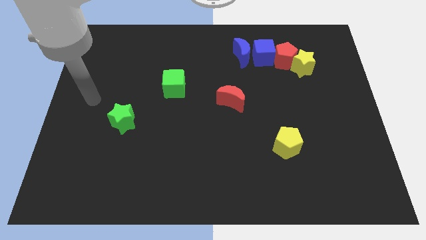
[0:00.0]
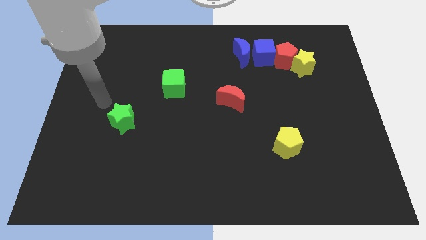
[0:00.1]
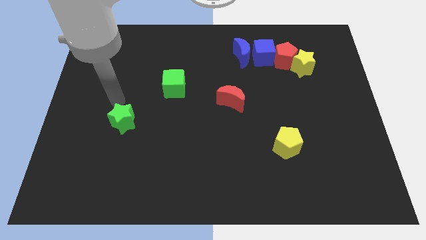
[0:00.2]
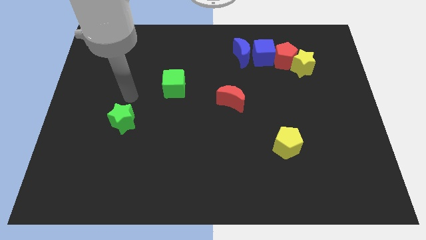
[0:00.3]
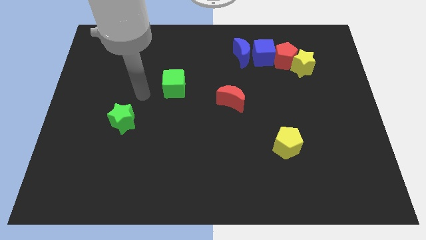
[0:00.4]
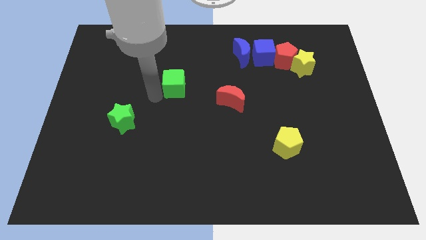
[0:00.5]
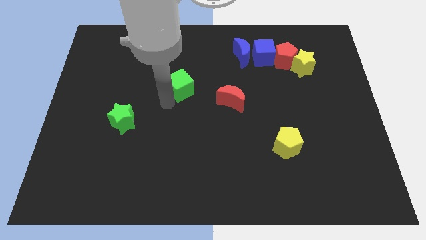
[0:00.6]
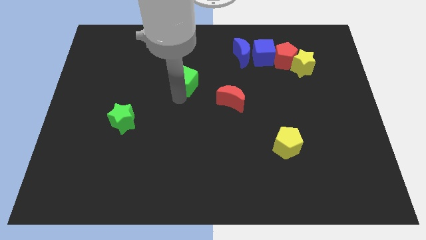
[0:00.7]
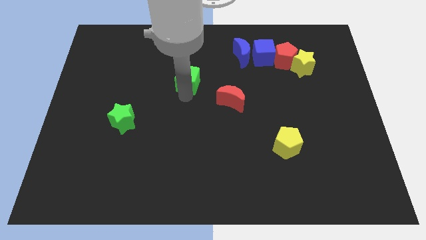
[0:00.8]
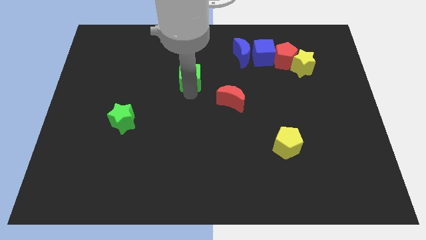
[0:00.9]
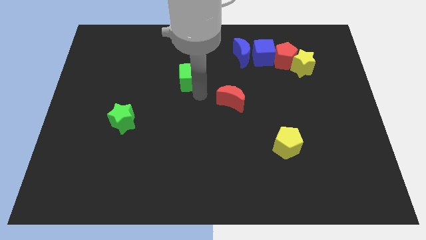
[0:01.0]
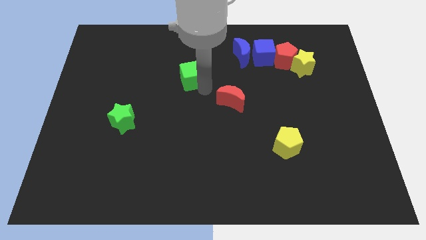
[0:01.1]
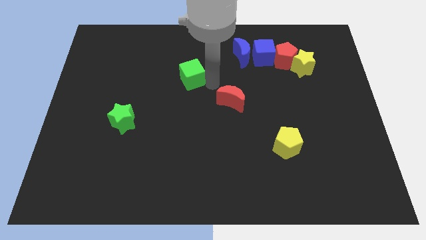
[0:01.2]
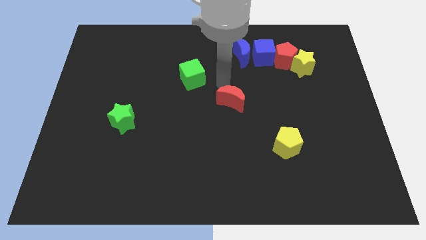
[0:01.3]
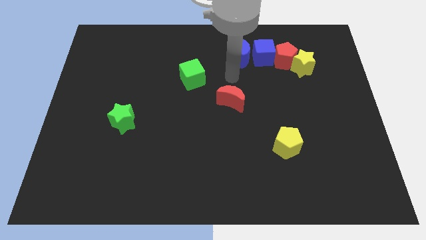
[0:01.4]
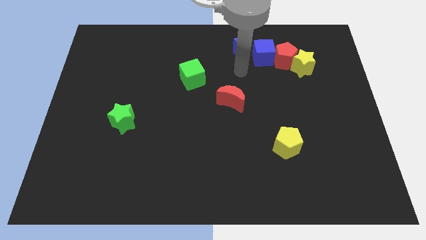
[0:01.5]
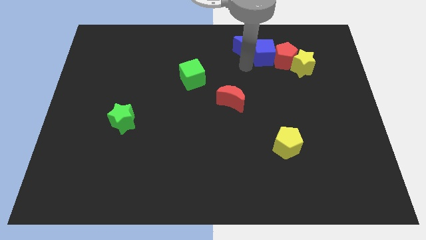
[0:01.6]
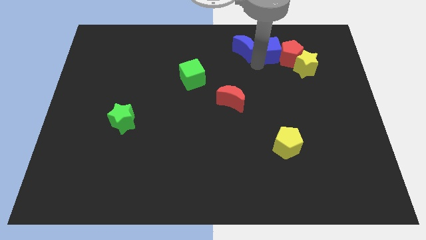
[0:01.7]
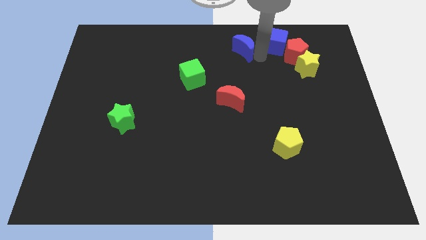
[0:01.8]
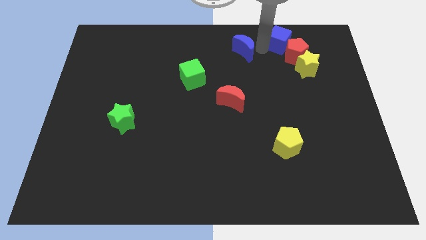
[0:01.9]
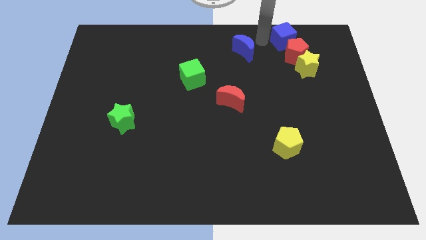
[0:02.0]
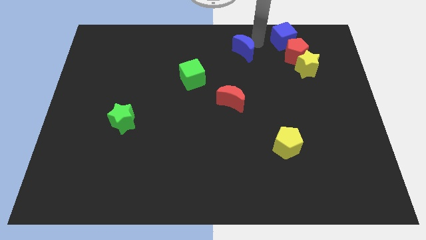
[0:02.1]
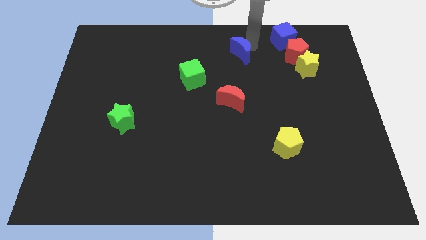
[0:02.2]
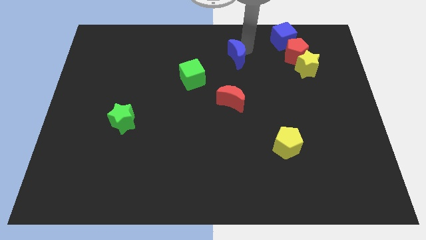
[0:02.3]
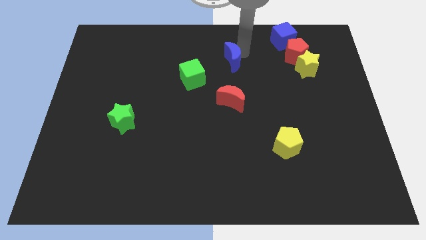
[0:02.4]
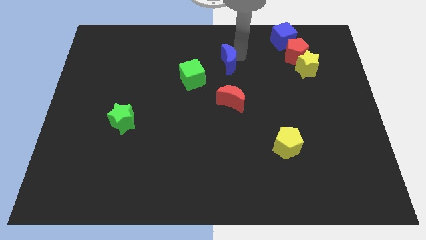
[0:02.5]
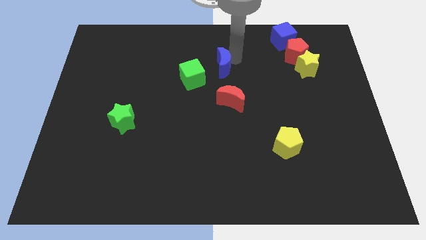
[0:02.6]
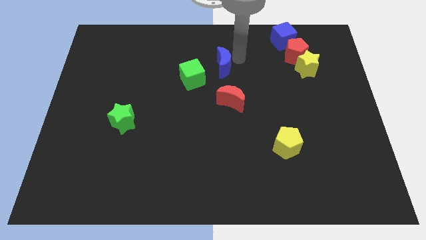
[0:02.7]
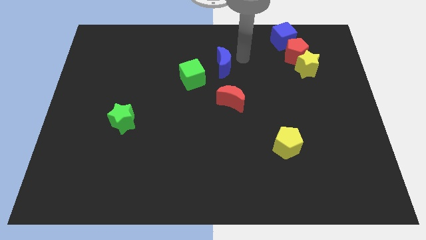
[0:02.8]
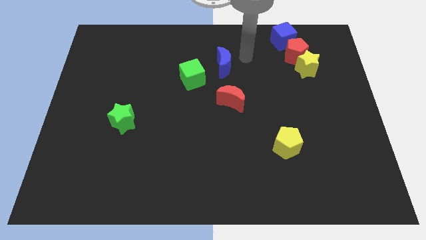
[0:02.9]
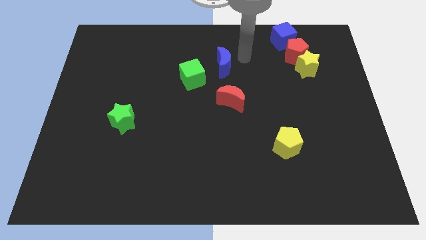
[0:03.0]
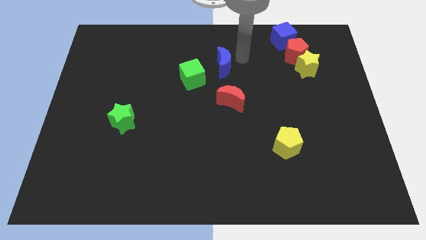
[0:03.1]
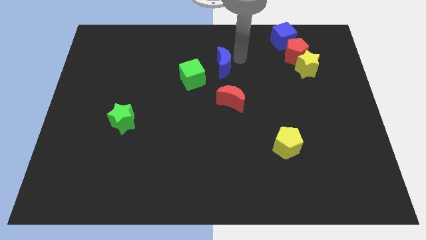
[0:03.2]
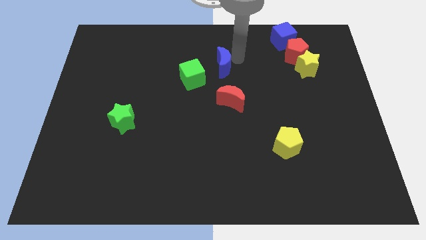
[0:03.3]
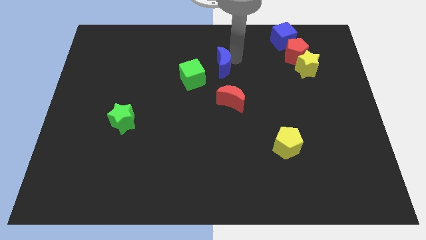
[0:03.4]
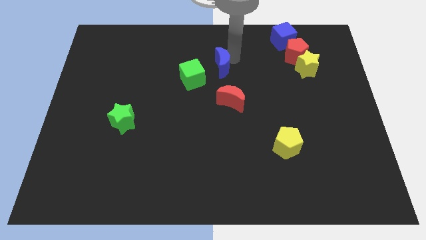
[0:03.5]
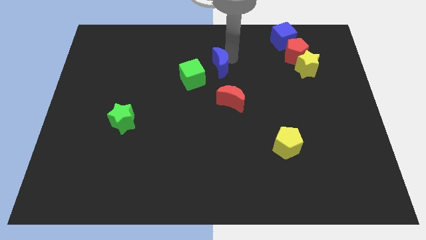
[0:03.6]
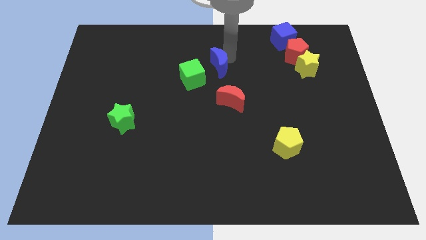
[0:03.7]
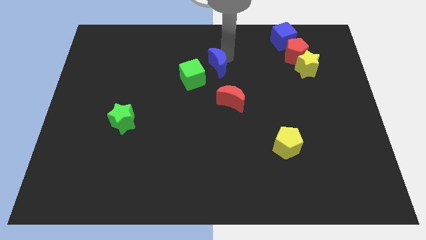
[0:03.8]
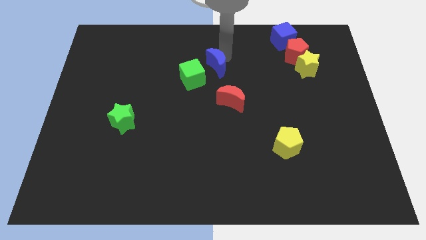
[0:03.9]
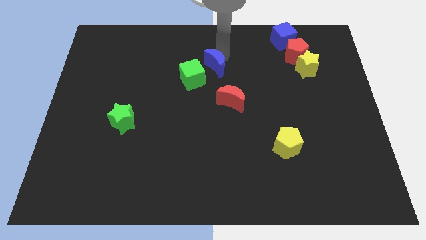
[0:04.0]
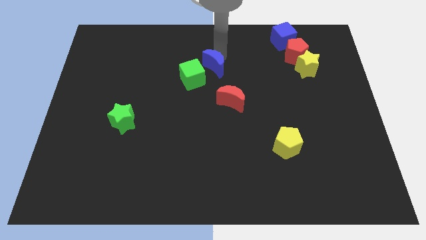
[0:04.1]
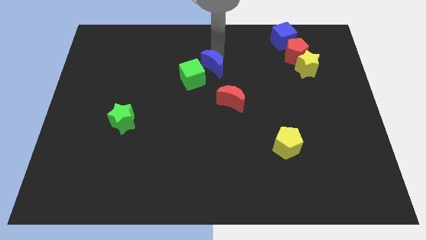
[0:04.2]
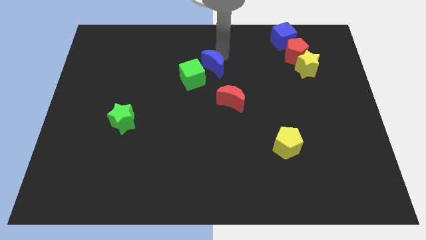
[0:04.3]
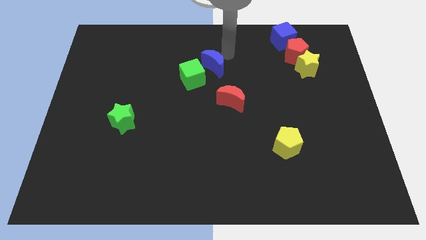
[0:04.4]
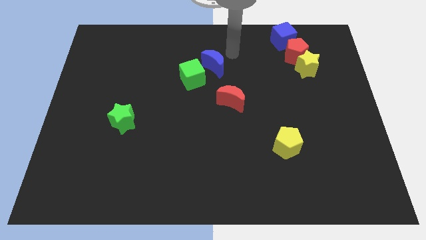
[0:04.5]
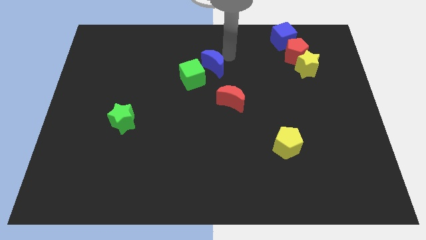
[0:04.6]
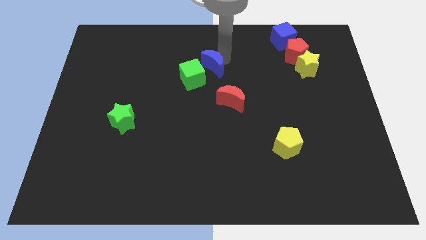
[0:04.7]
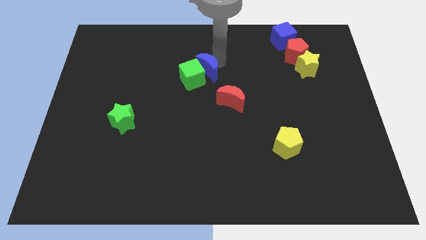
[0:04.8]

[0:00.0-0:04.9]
slide the blue moon to the green cube

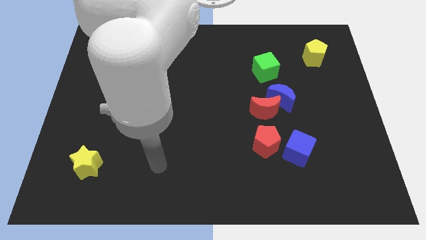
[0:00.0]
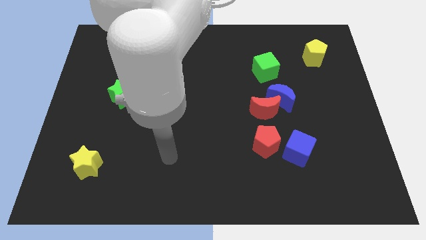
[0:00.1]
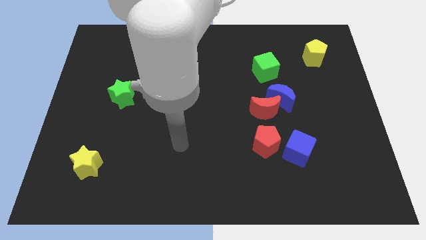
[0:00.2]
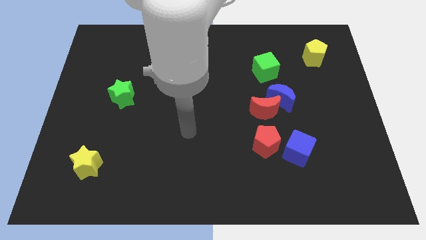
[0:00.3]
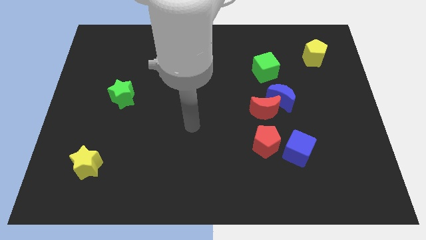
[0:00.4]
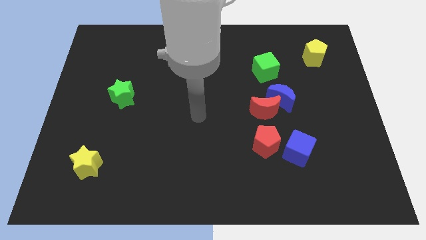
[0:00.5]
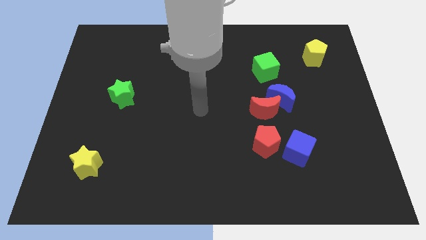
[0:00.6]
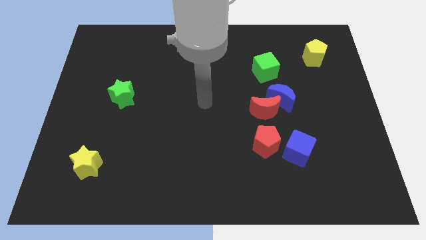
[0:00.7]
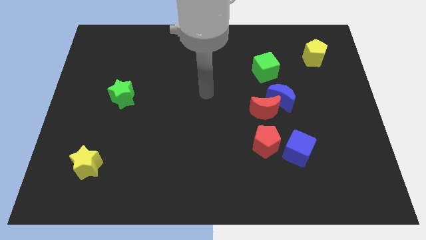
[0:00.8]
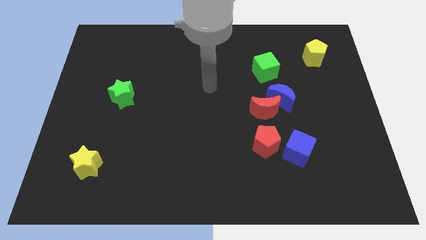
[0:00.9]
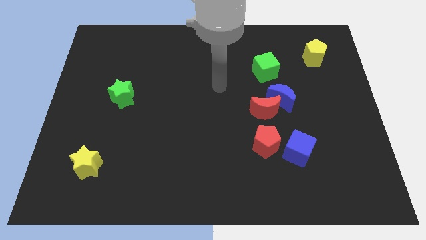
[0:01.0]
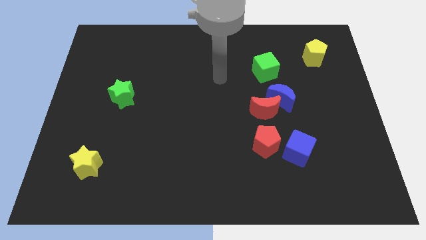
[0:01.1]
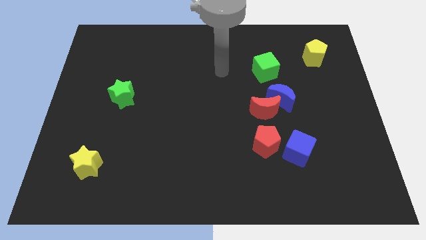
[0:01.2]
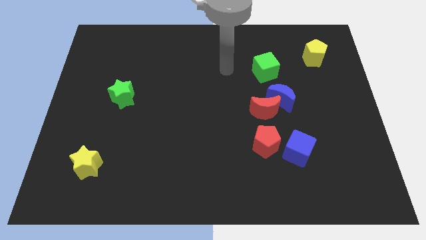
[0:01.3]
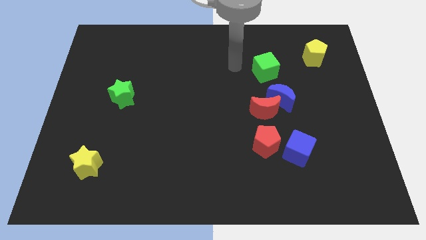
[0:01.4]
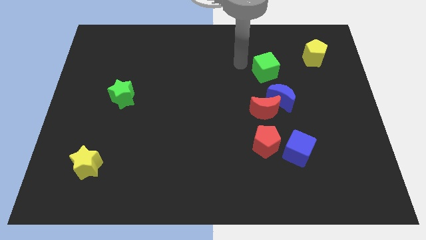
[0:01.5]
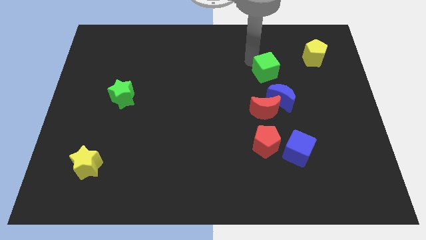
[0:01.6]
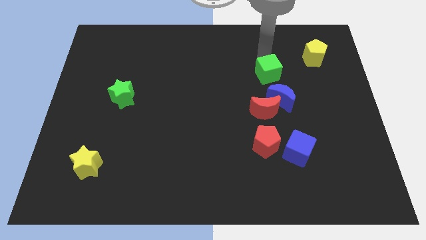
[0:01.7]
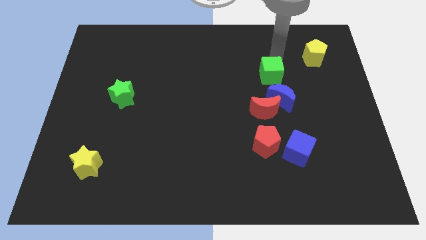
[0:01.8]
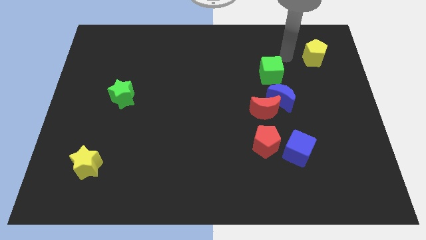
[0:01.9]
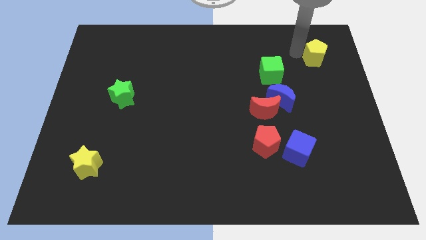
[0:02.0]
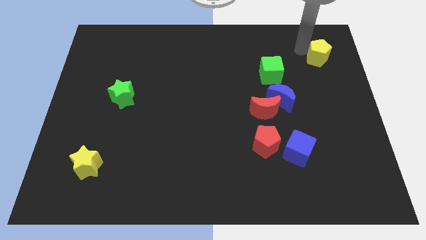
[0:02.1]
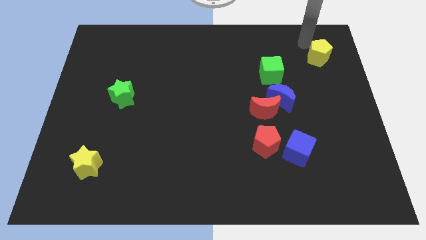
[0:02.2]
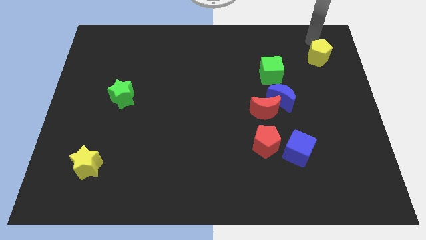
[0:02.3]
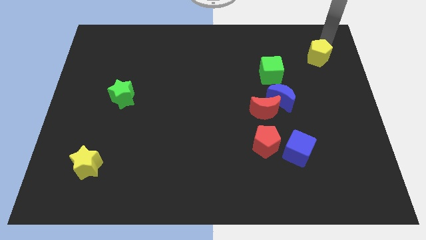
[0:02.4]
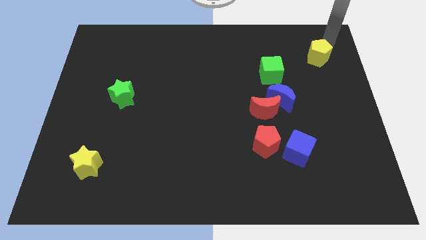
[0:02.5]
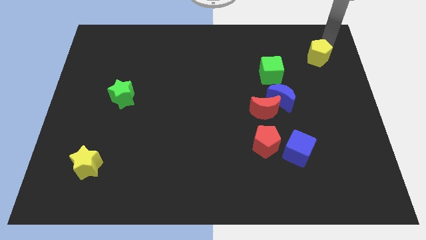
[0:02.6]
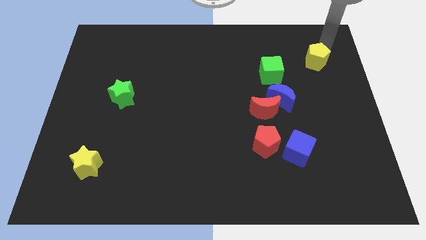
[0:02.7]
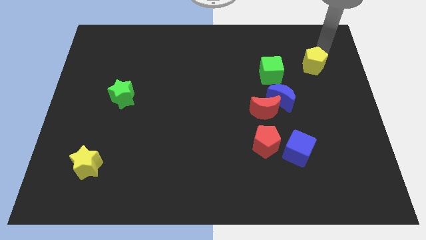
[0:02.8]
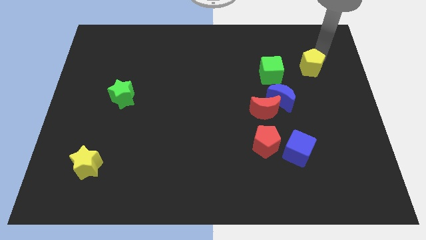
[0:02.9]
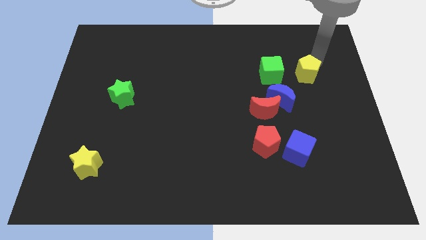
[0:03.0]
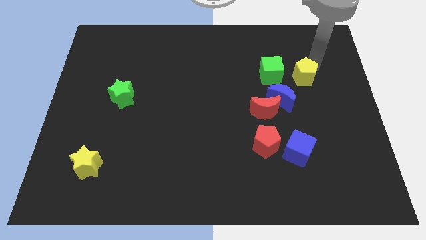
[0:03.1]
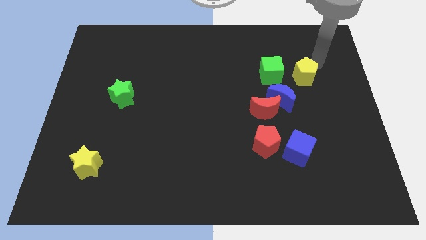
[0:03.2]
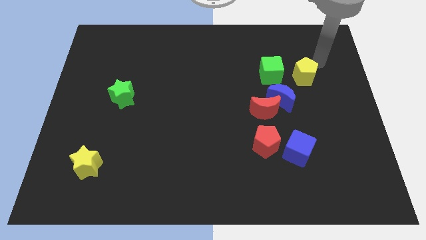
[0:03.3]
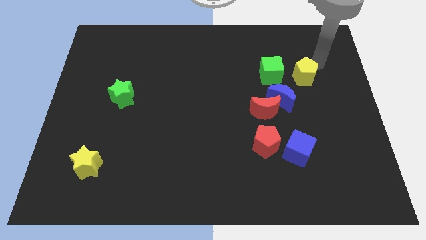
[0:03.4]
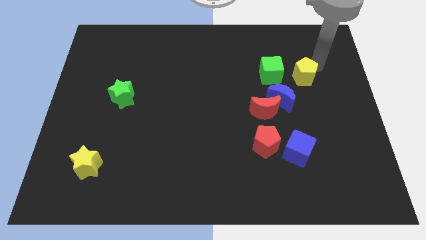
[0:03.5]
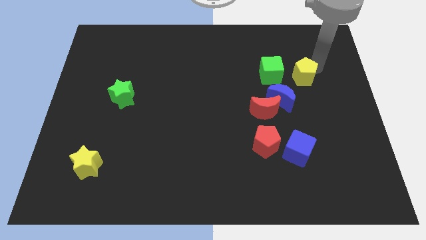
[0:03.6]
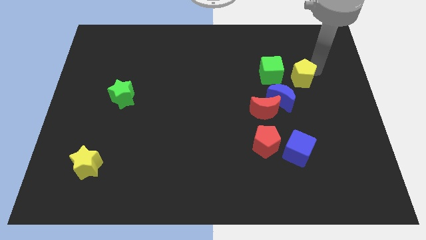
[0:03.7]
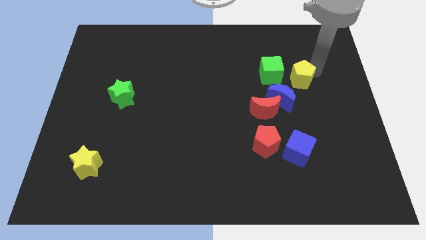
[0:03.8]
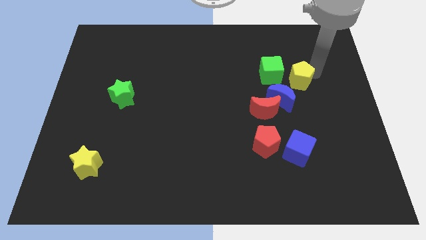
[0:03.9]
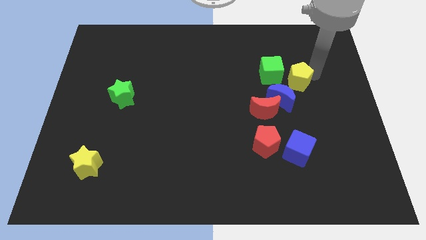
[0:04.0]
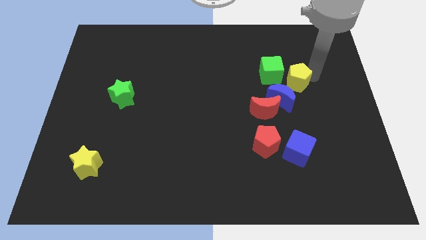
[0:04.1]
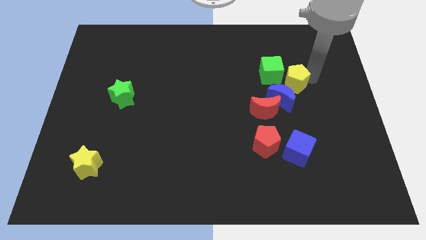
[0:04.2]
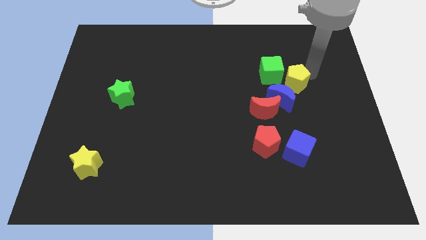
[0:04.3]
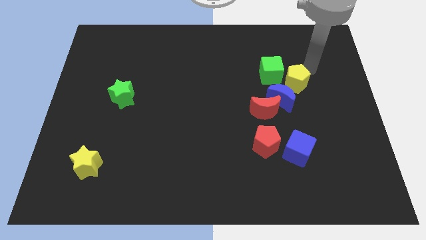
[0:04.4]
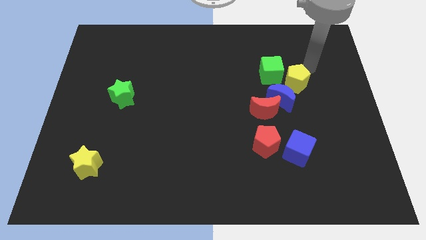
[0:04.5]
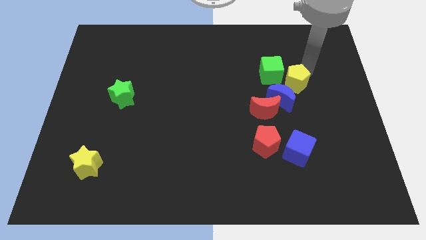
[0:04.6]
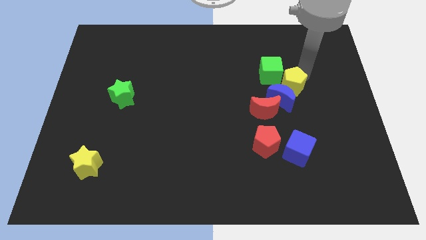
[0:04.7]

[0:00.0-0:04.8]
slide the yellow pentagon towards the blue moon
